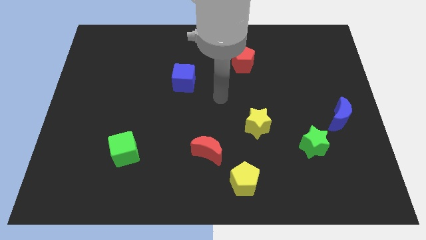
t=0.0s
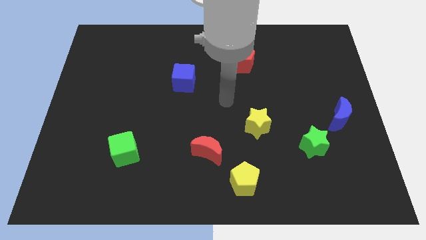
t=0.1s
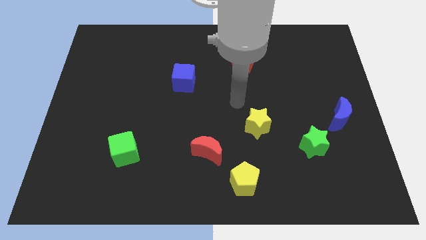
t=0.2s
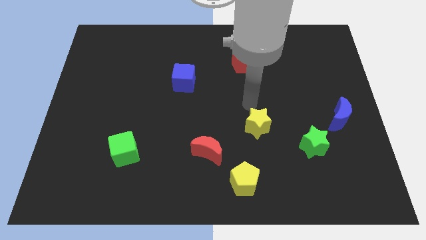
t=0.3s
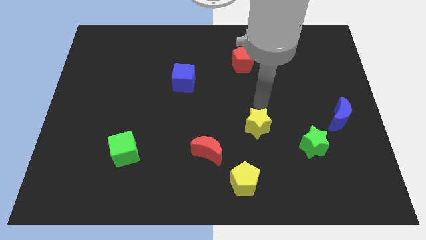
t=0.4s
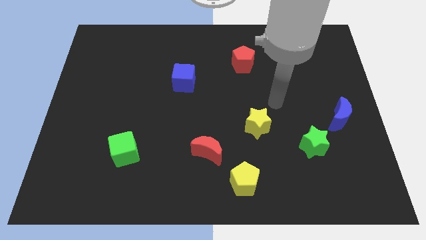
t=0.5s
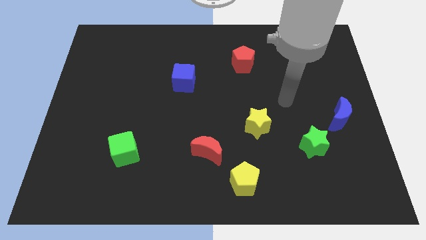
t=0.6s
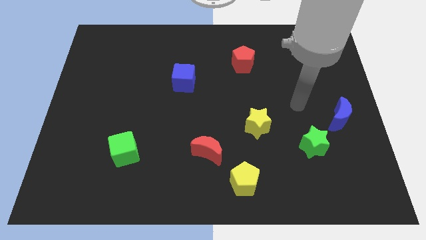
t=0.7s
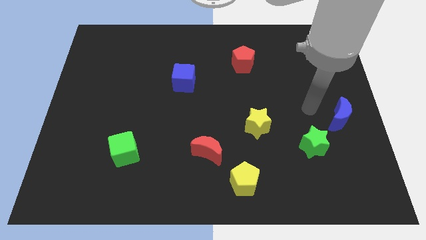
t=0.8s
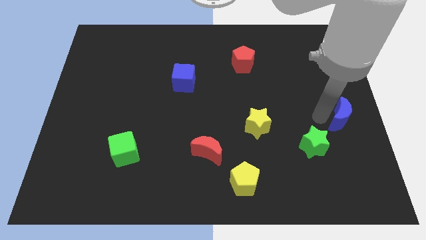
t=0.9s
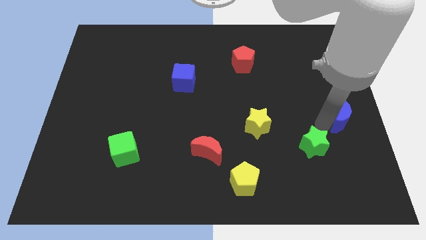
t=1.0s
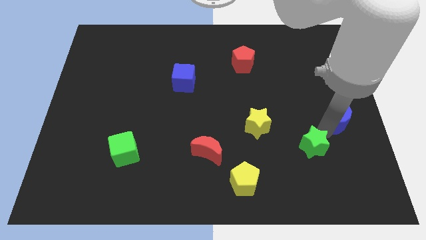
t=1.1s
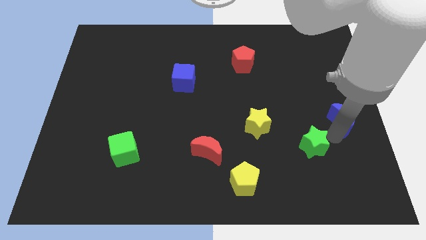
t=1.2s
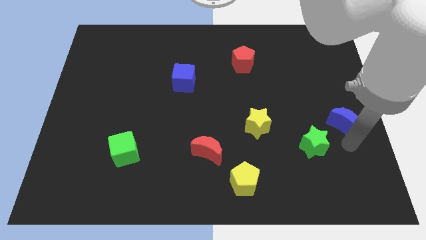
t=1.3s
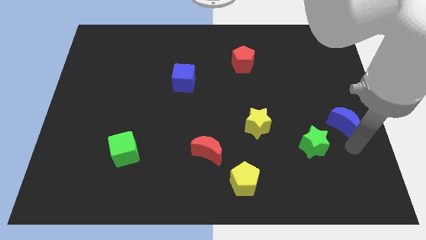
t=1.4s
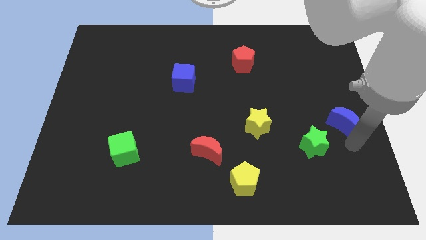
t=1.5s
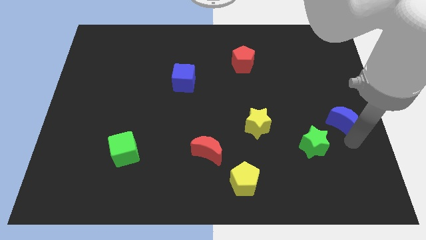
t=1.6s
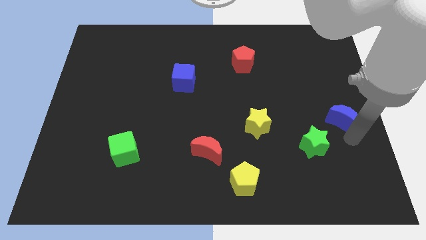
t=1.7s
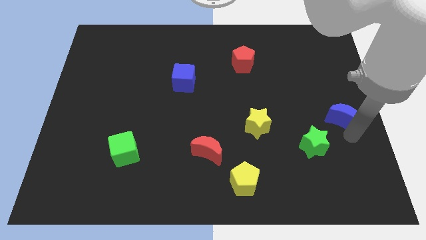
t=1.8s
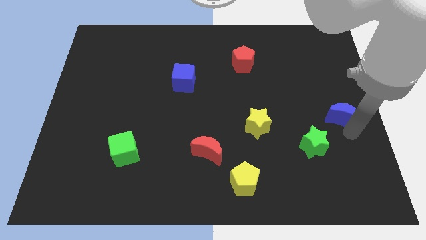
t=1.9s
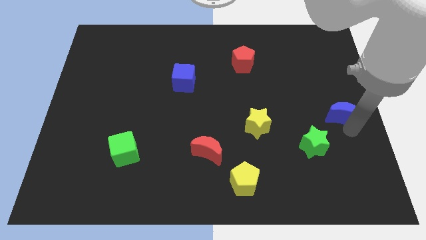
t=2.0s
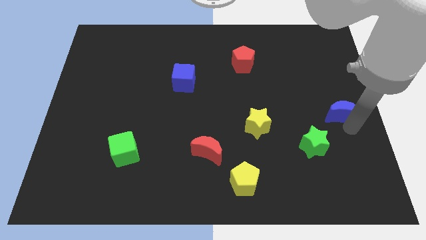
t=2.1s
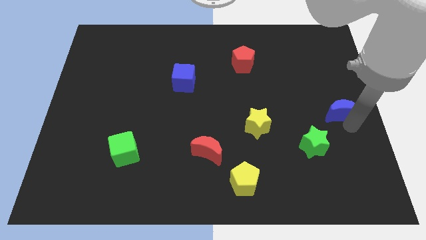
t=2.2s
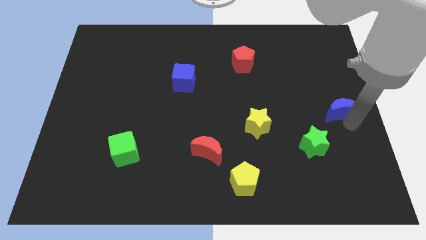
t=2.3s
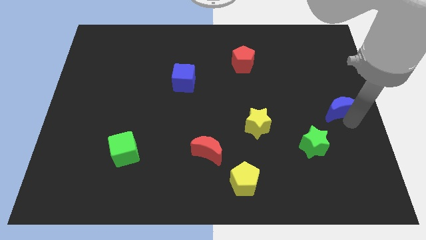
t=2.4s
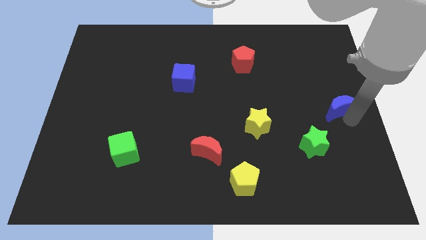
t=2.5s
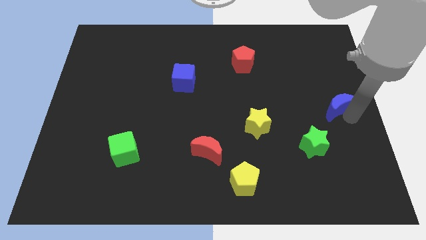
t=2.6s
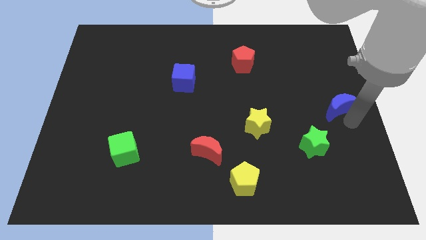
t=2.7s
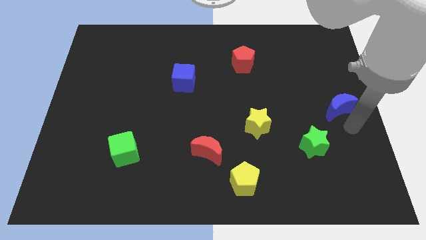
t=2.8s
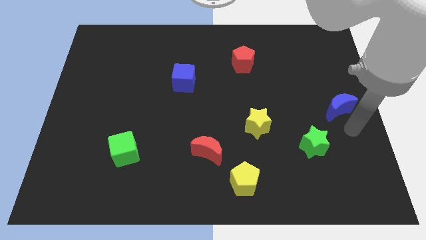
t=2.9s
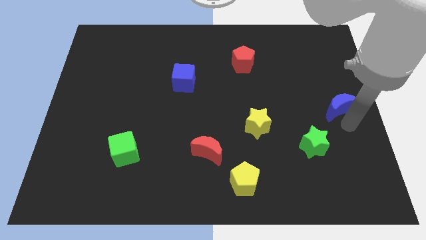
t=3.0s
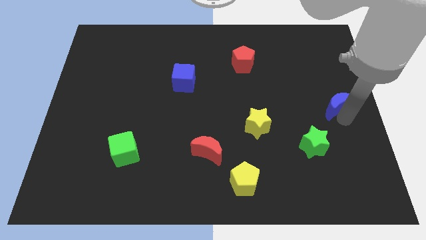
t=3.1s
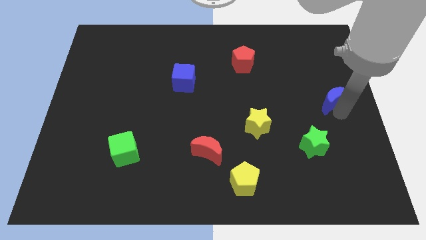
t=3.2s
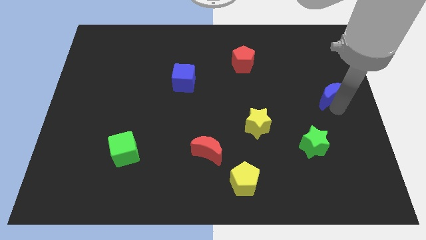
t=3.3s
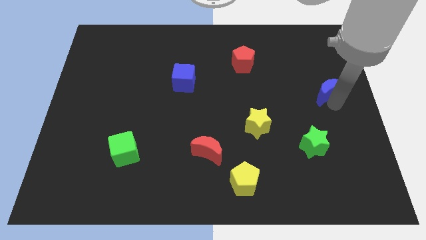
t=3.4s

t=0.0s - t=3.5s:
slightly slide the blue moon up

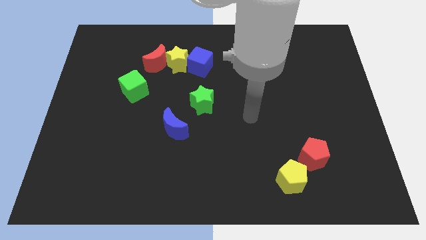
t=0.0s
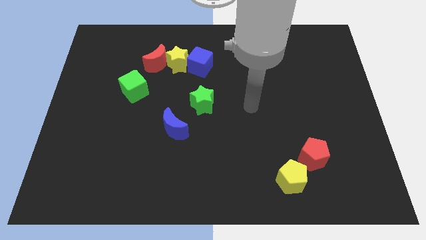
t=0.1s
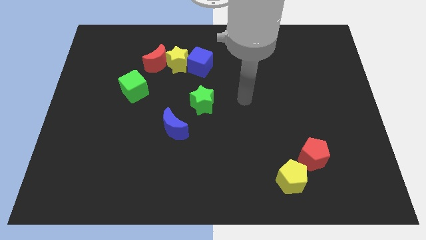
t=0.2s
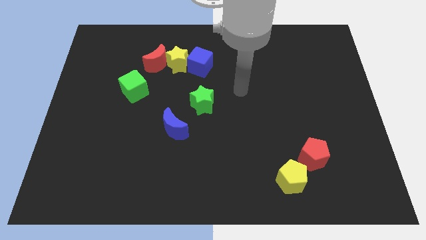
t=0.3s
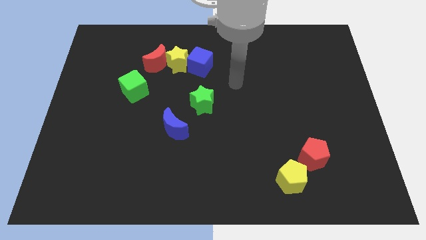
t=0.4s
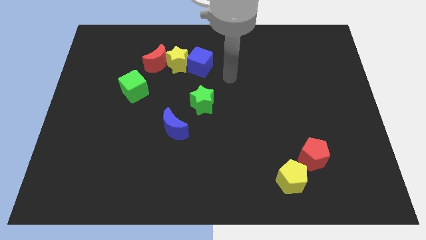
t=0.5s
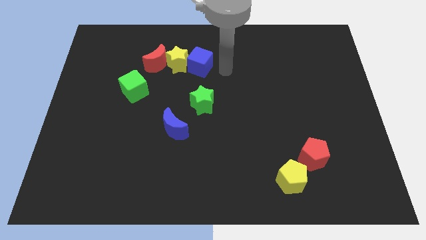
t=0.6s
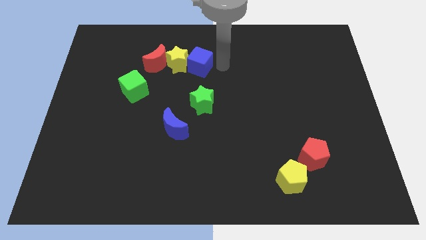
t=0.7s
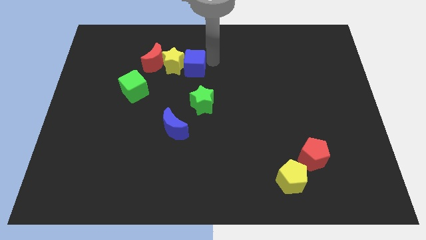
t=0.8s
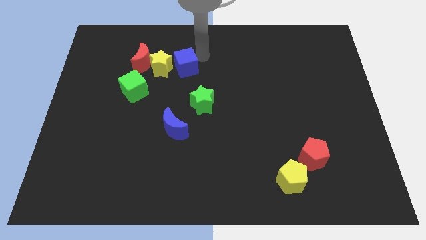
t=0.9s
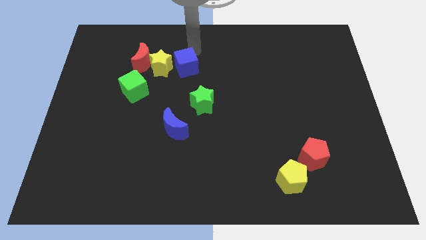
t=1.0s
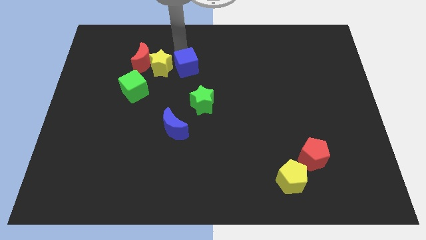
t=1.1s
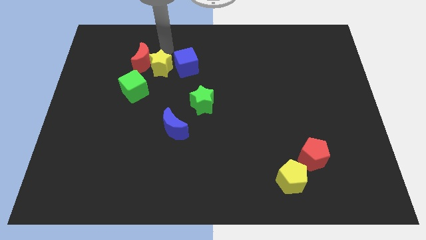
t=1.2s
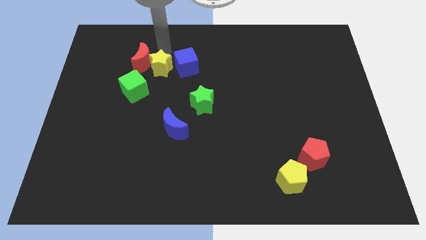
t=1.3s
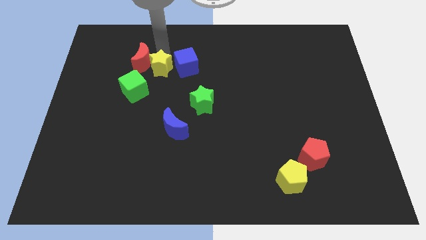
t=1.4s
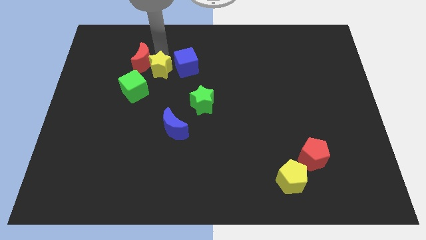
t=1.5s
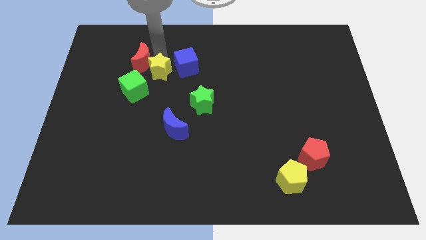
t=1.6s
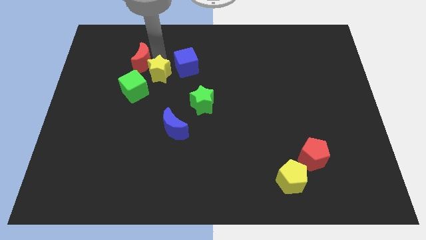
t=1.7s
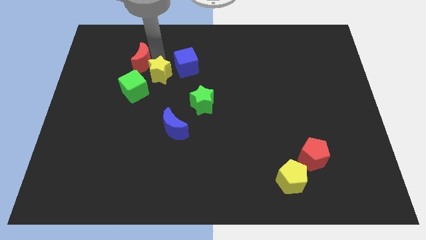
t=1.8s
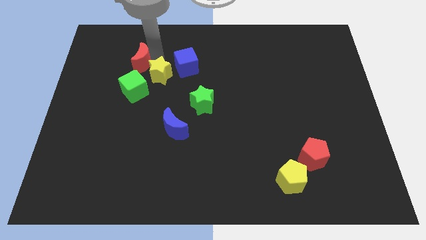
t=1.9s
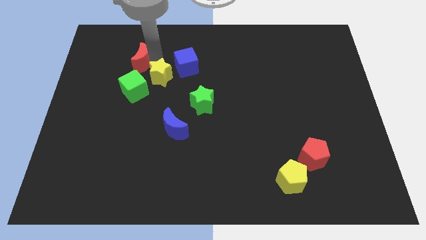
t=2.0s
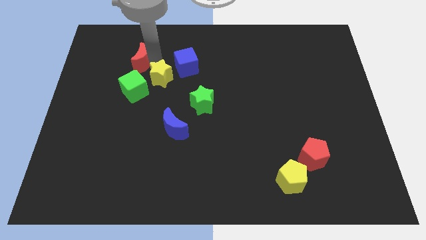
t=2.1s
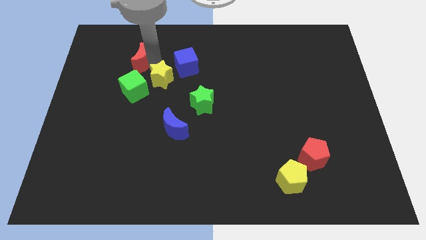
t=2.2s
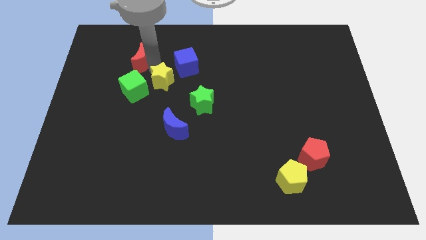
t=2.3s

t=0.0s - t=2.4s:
push the yellow star diagonally downwards and left a little bit

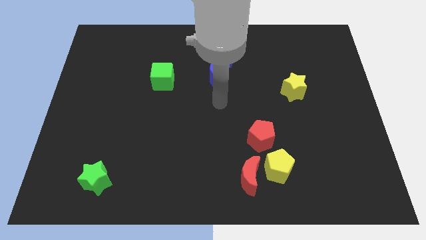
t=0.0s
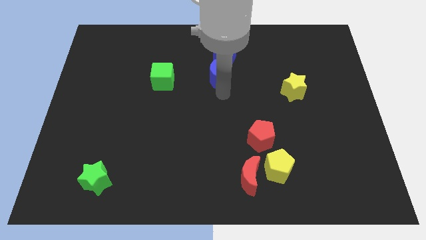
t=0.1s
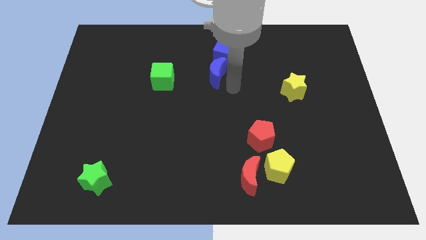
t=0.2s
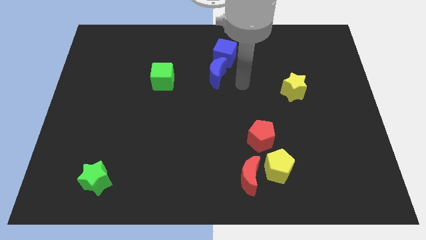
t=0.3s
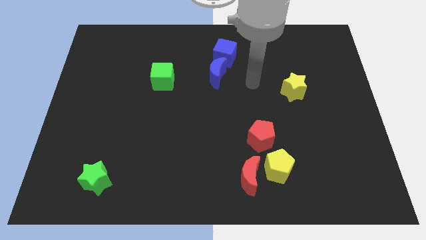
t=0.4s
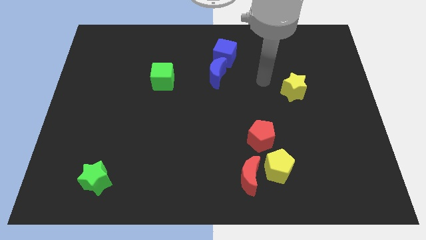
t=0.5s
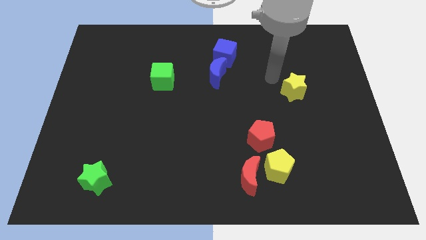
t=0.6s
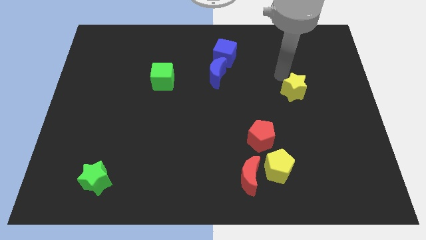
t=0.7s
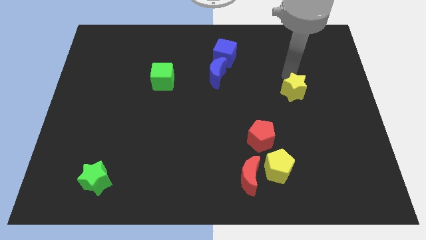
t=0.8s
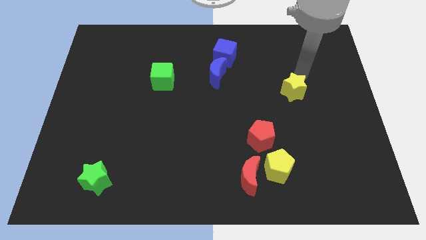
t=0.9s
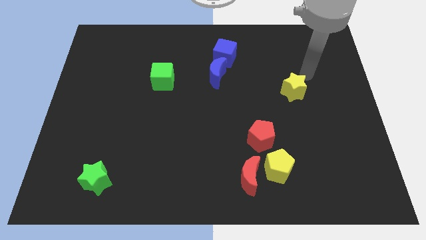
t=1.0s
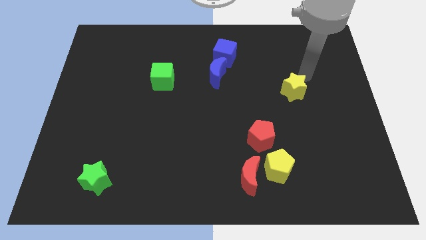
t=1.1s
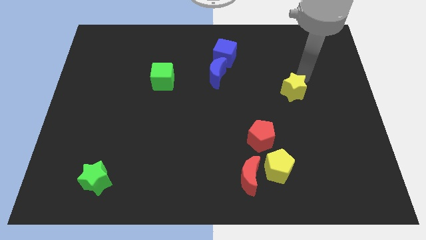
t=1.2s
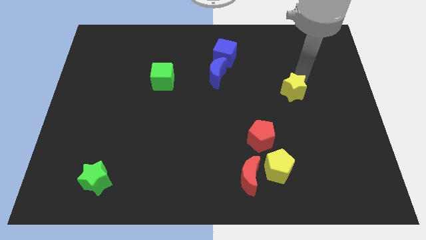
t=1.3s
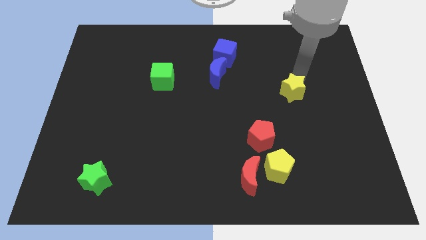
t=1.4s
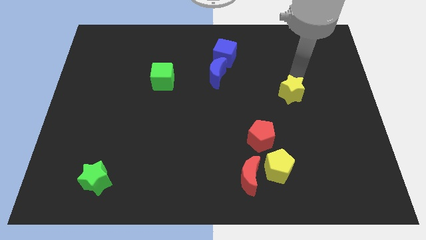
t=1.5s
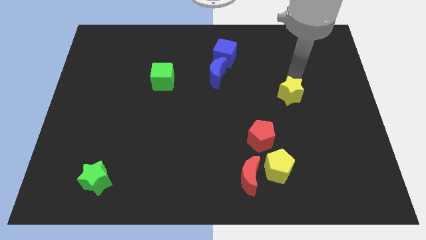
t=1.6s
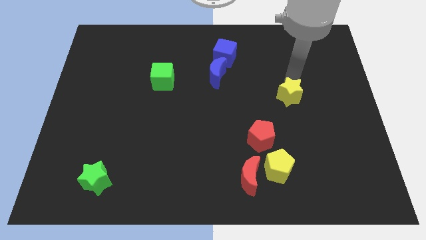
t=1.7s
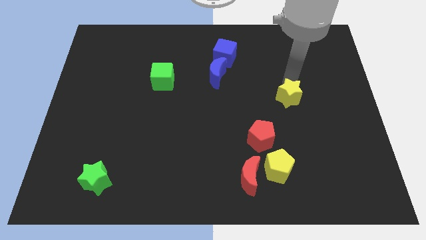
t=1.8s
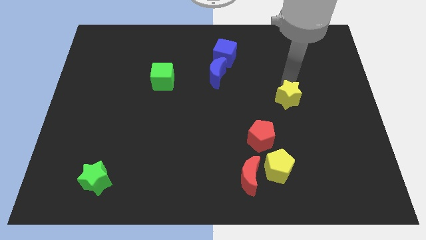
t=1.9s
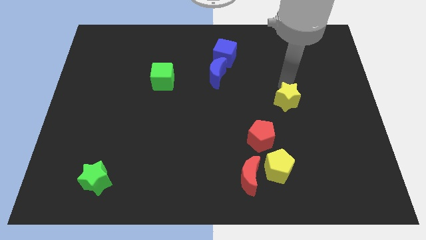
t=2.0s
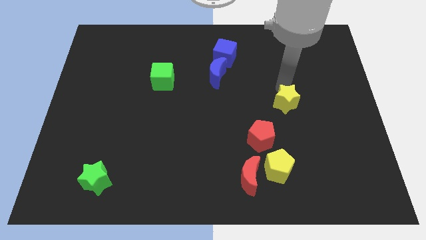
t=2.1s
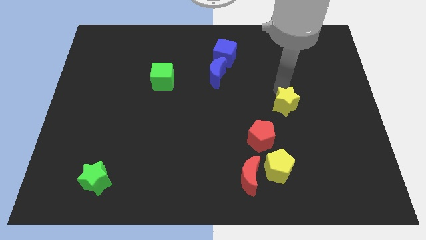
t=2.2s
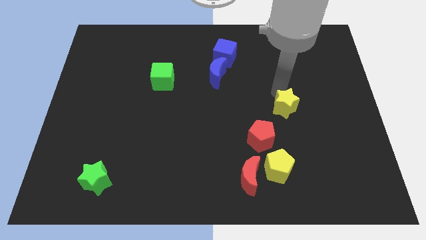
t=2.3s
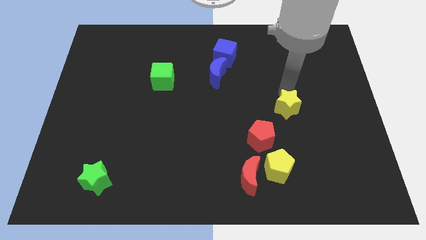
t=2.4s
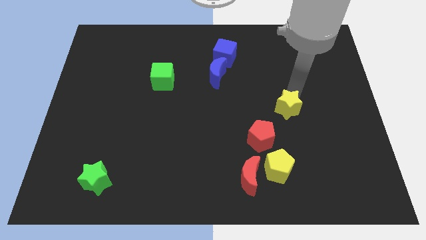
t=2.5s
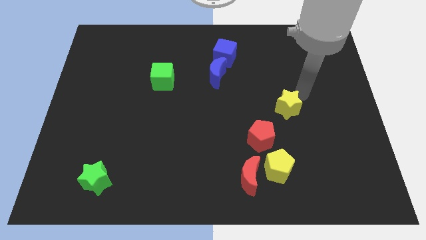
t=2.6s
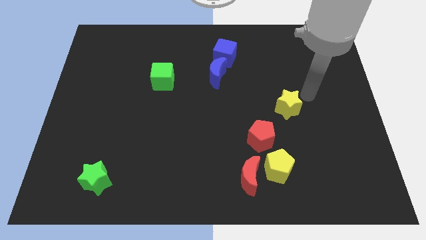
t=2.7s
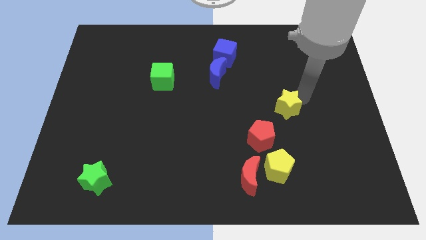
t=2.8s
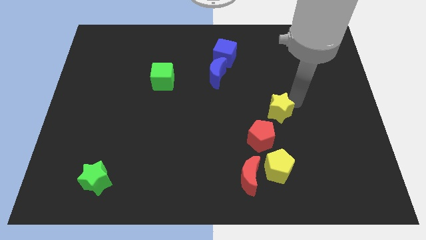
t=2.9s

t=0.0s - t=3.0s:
move the yellow star somewhat down and left
